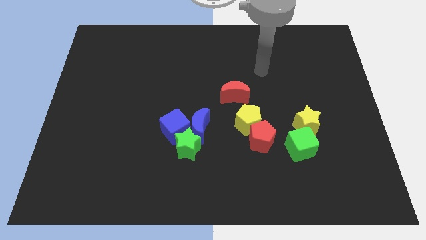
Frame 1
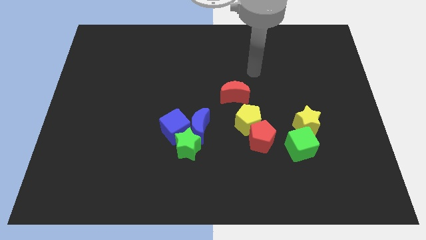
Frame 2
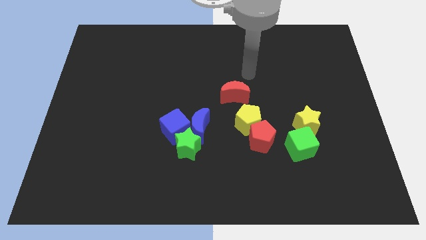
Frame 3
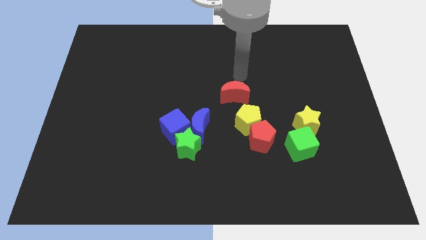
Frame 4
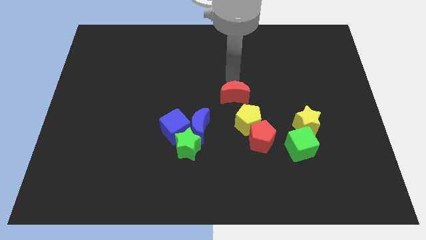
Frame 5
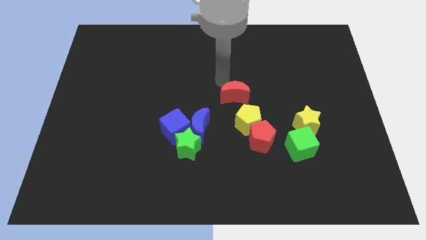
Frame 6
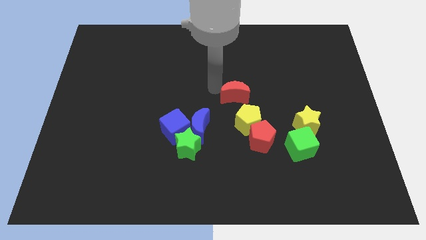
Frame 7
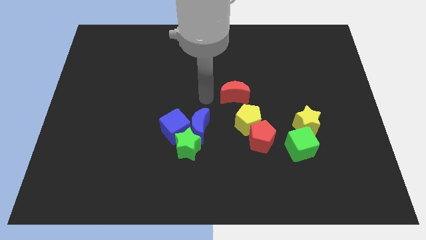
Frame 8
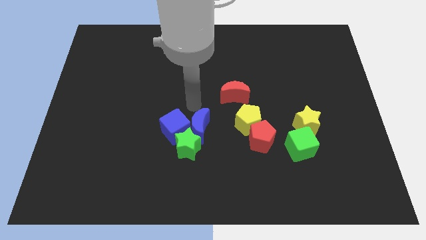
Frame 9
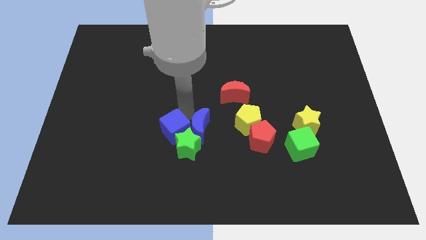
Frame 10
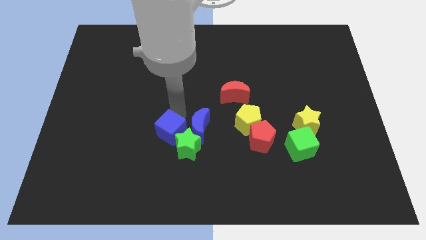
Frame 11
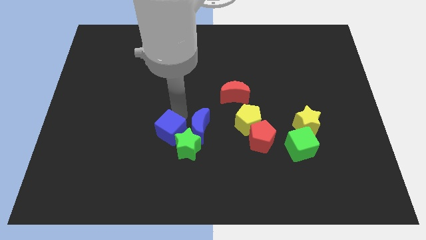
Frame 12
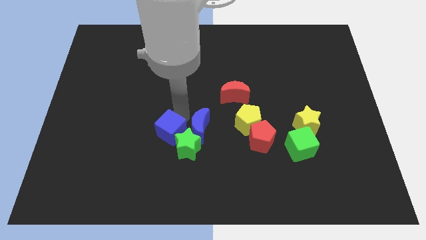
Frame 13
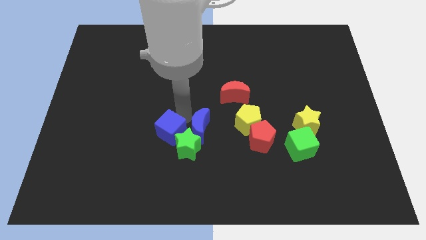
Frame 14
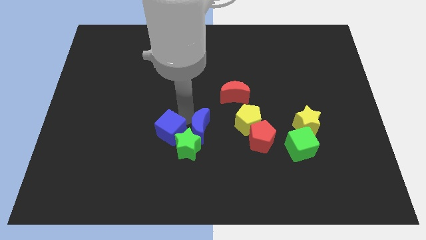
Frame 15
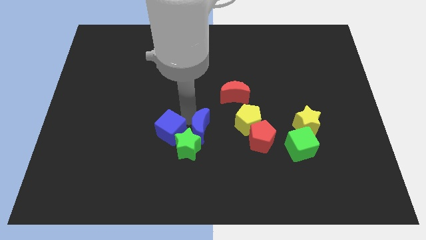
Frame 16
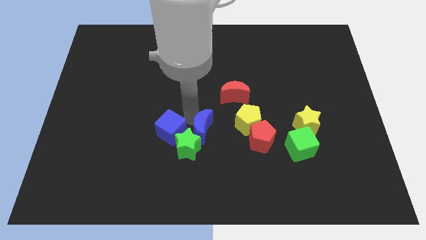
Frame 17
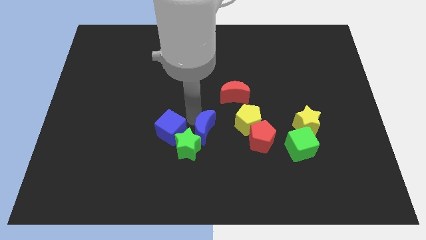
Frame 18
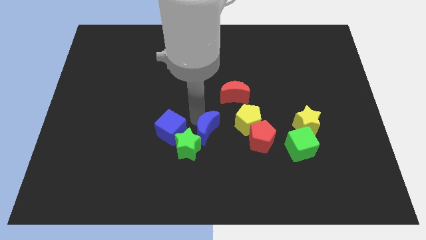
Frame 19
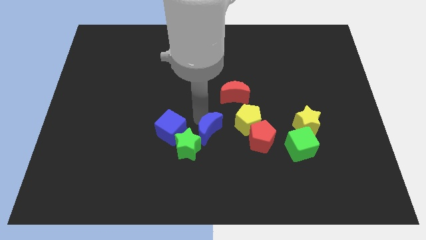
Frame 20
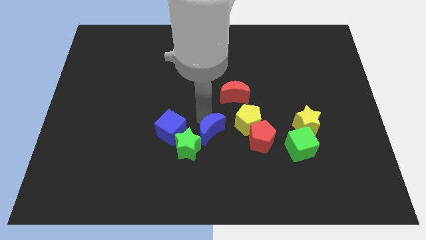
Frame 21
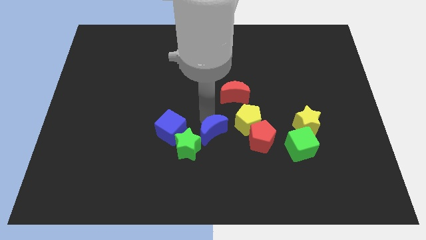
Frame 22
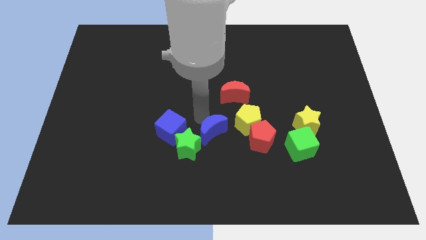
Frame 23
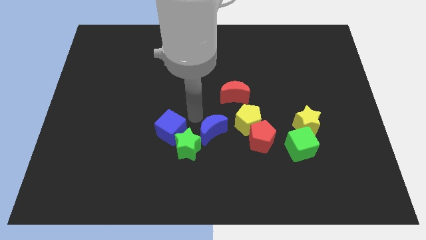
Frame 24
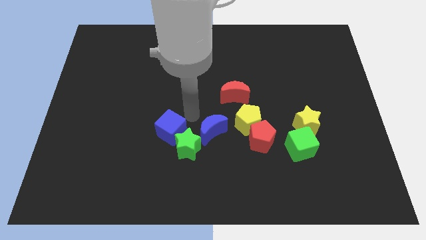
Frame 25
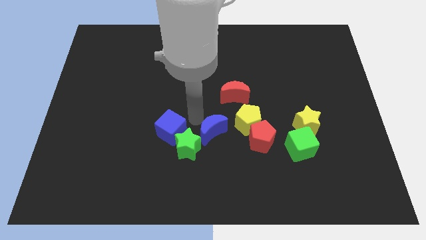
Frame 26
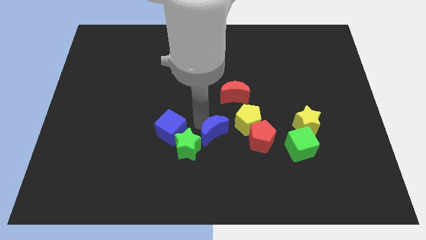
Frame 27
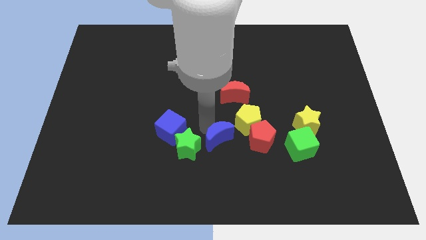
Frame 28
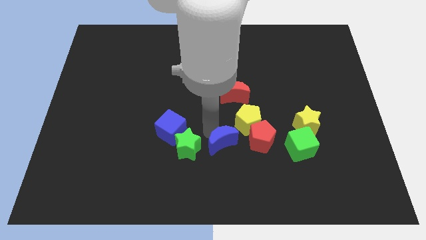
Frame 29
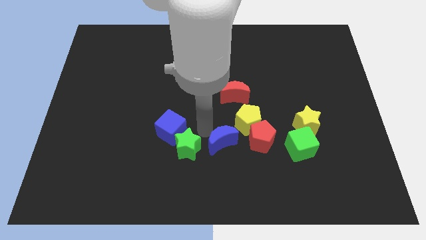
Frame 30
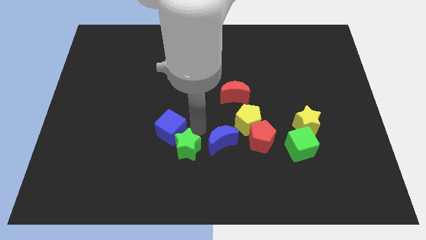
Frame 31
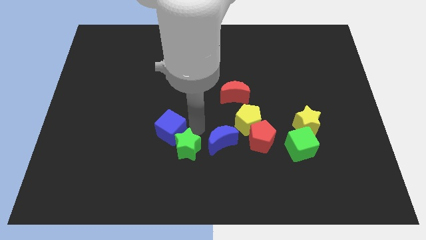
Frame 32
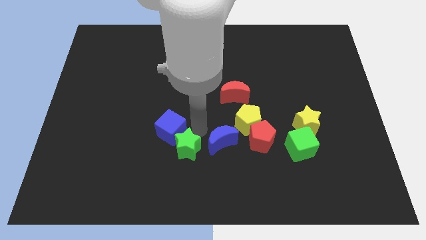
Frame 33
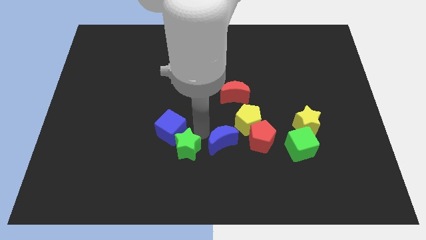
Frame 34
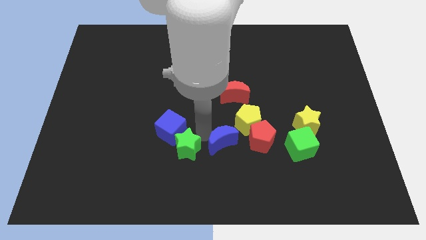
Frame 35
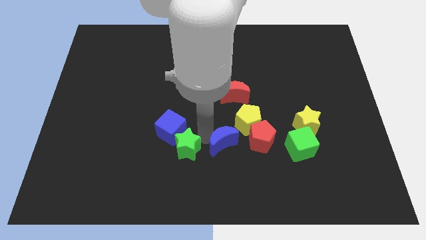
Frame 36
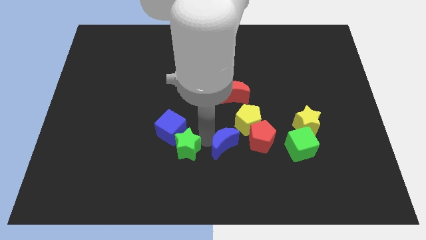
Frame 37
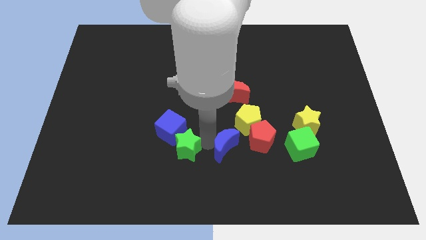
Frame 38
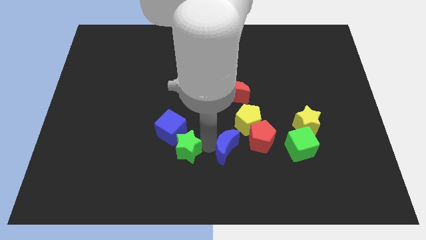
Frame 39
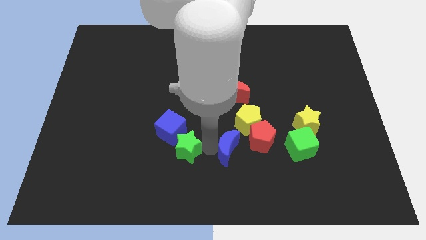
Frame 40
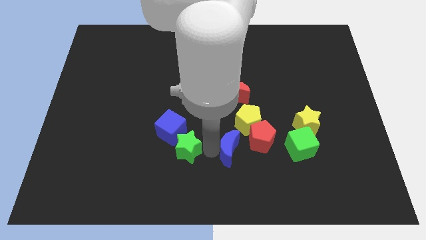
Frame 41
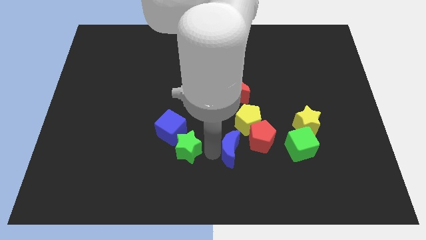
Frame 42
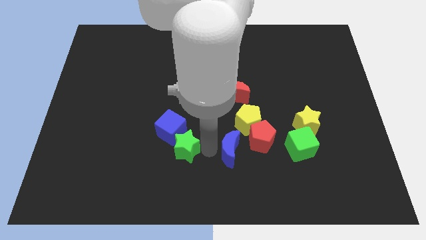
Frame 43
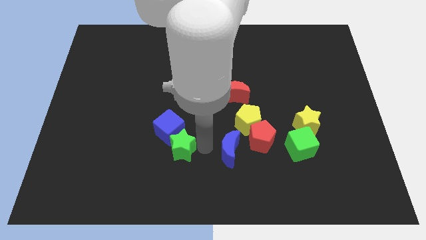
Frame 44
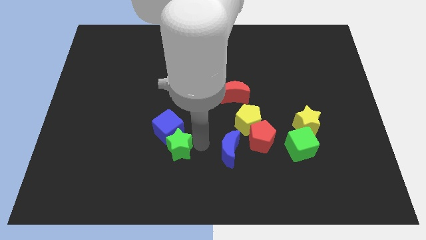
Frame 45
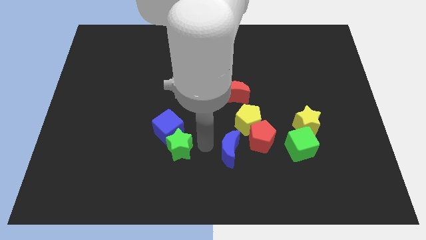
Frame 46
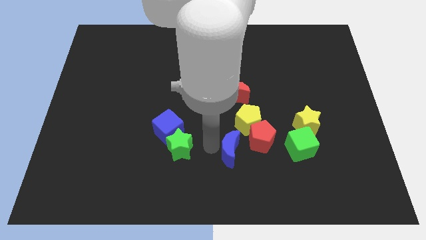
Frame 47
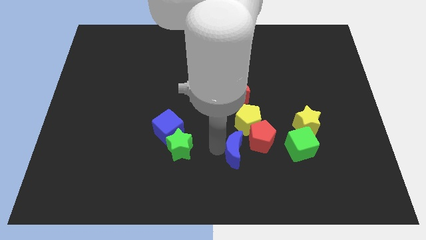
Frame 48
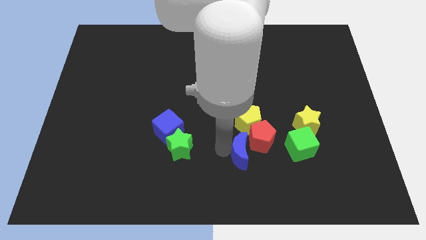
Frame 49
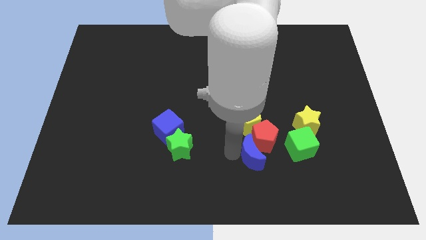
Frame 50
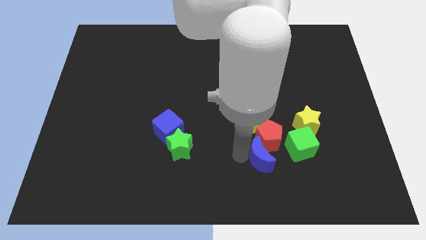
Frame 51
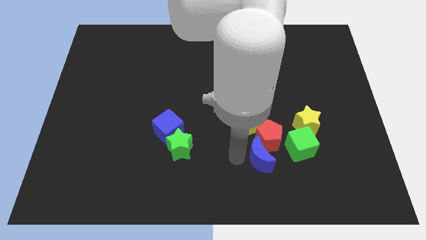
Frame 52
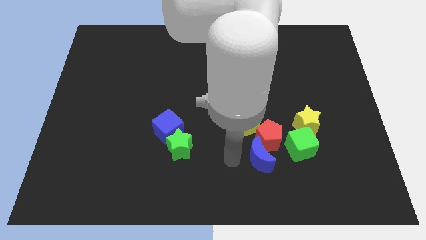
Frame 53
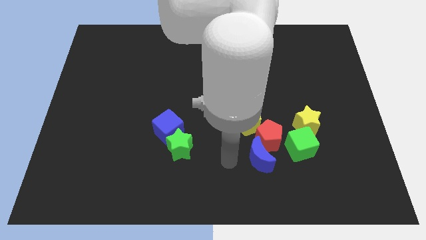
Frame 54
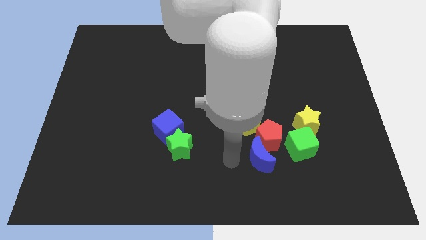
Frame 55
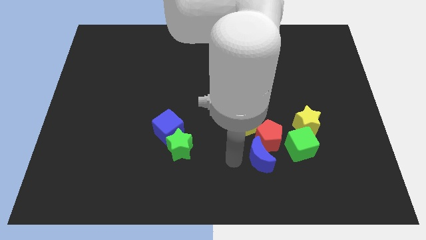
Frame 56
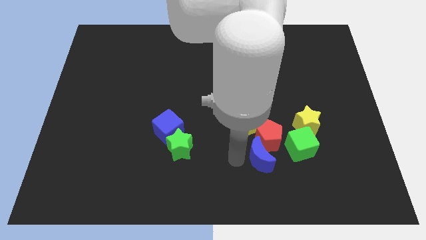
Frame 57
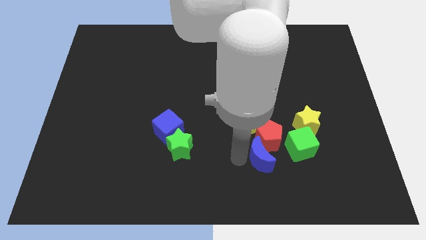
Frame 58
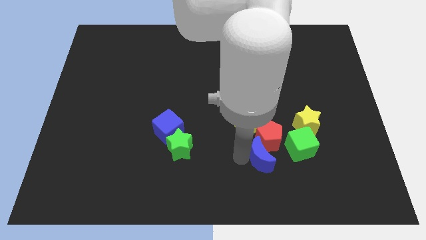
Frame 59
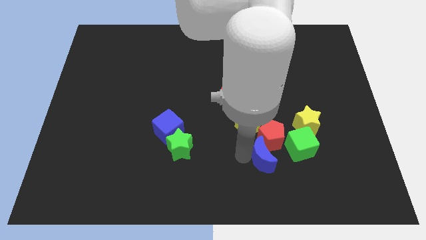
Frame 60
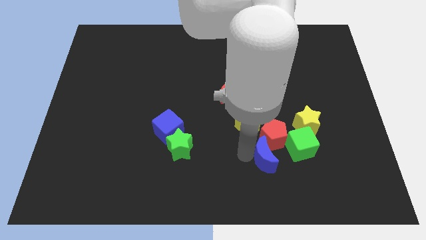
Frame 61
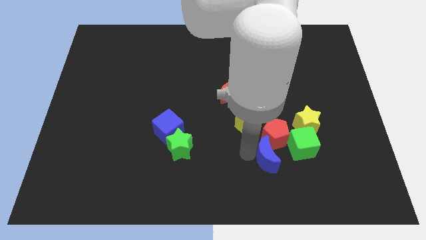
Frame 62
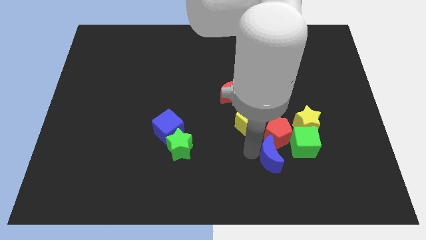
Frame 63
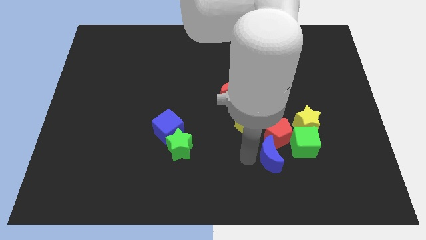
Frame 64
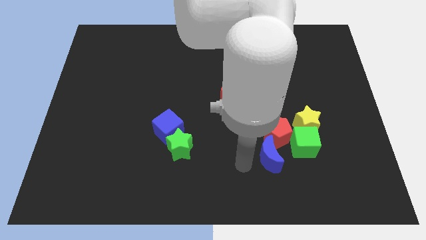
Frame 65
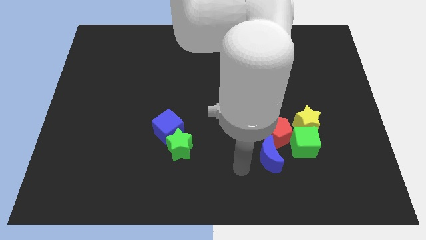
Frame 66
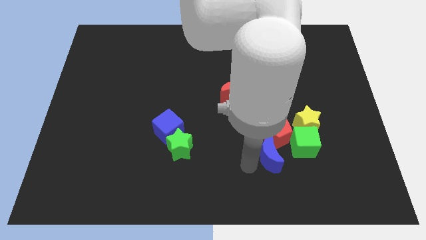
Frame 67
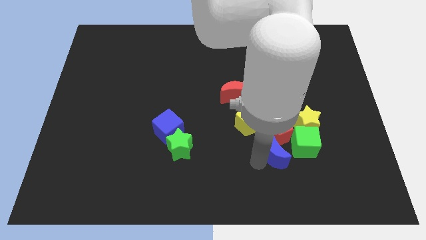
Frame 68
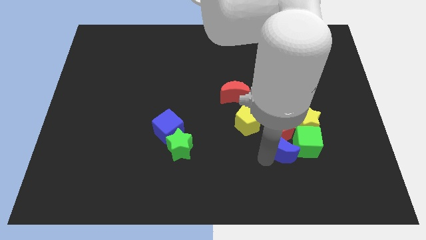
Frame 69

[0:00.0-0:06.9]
put the blue moon next to the green cube
